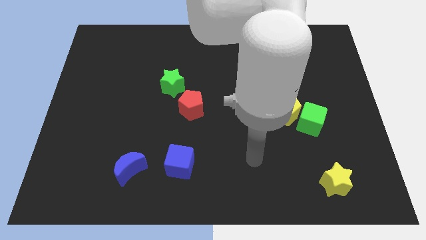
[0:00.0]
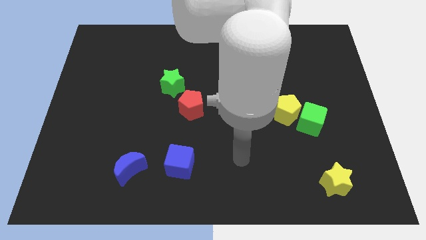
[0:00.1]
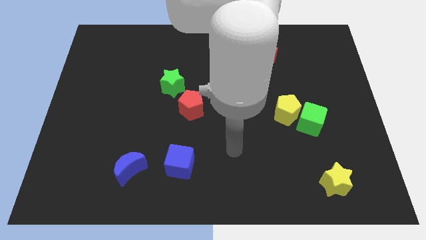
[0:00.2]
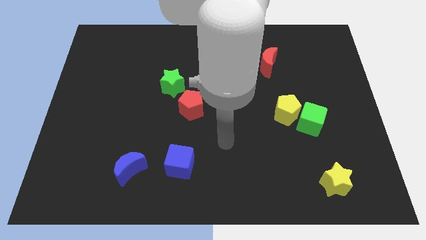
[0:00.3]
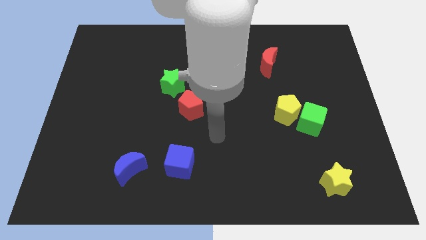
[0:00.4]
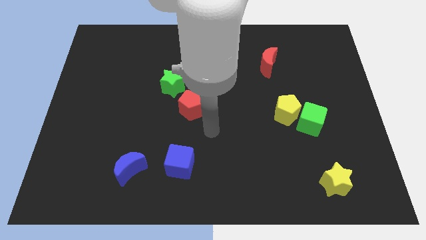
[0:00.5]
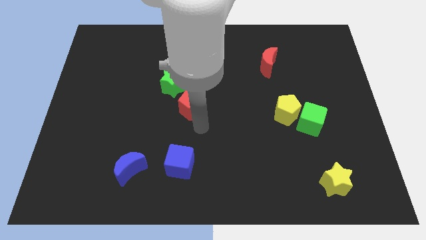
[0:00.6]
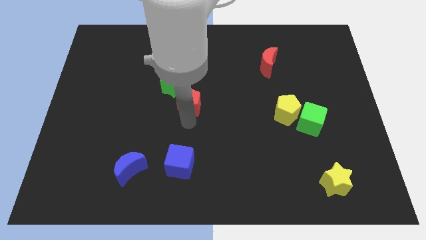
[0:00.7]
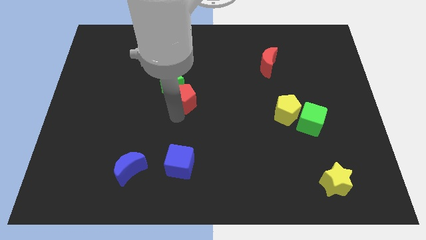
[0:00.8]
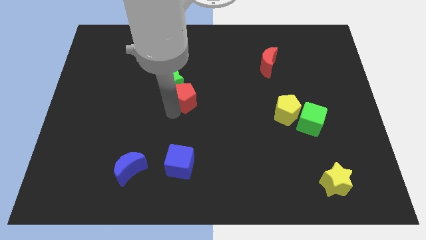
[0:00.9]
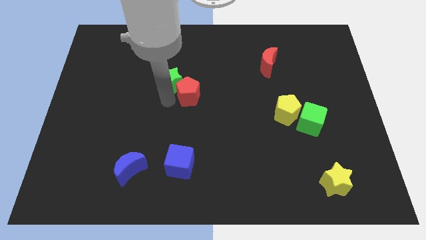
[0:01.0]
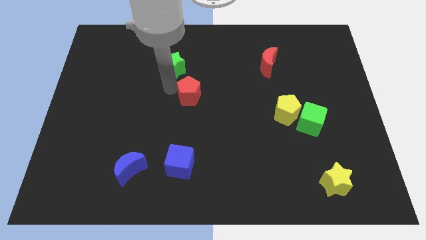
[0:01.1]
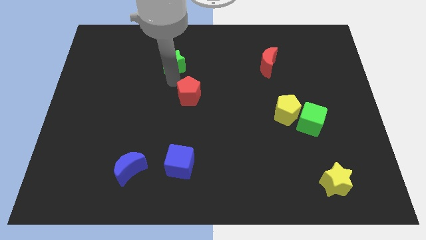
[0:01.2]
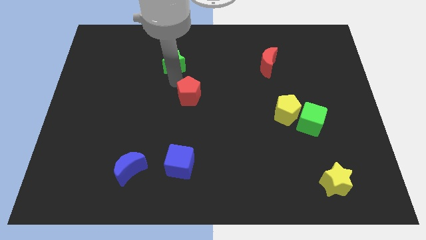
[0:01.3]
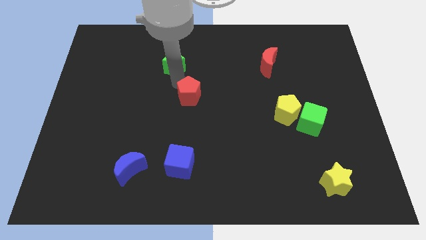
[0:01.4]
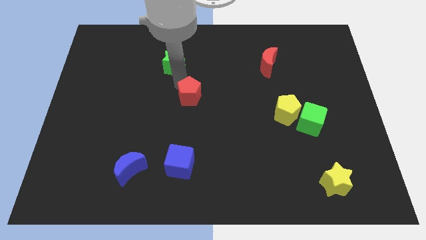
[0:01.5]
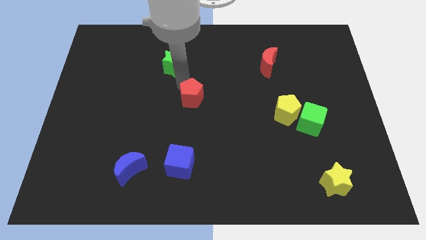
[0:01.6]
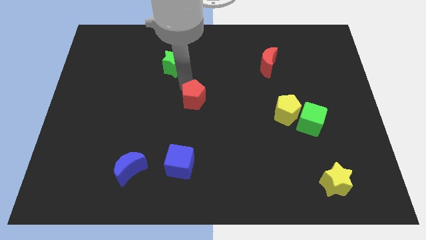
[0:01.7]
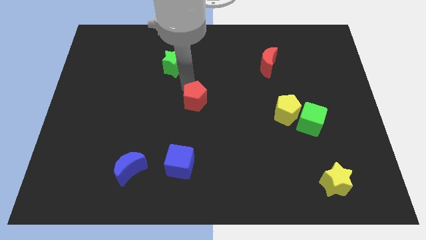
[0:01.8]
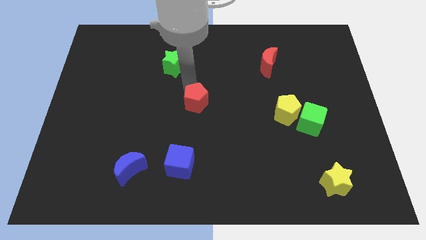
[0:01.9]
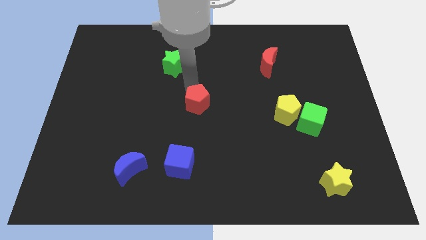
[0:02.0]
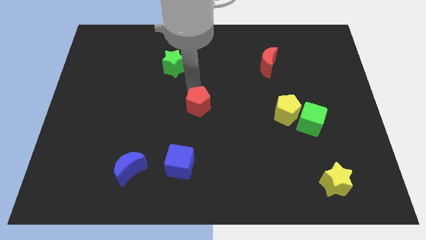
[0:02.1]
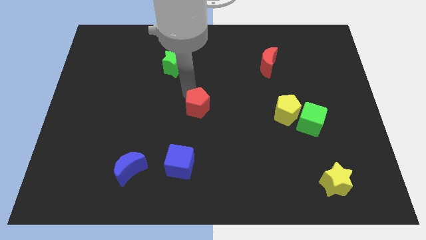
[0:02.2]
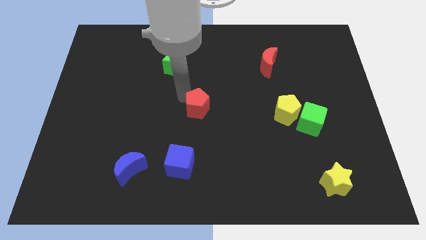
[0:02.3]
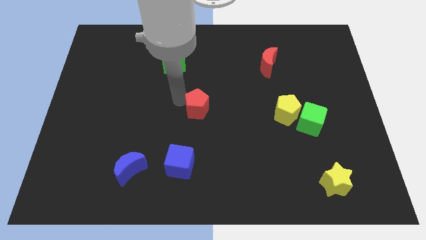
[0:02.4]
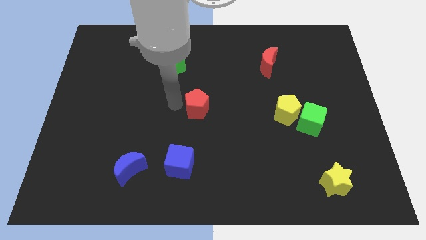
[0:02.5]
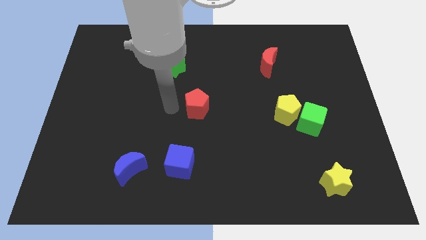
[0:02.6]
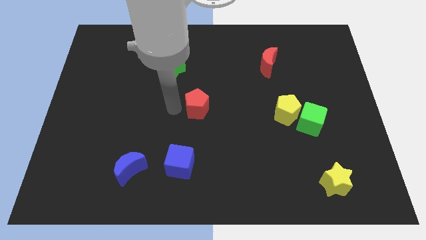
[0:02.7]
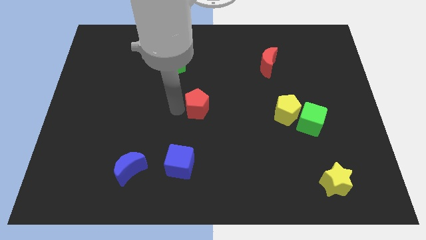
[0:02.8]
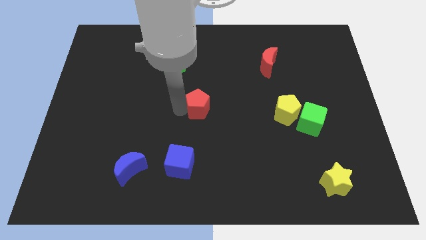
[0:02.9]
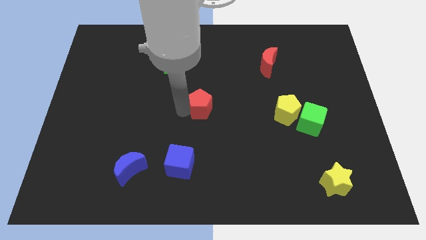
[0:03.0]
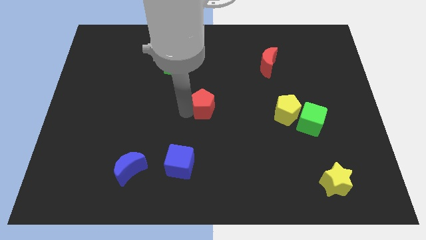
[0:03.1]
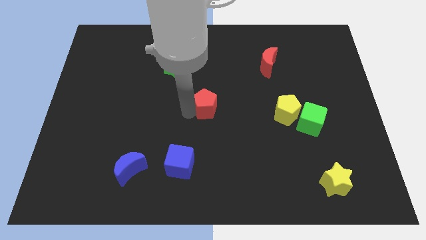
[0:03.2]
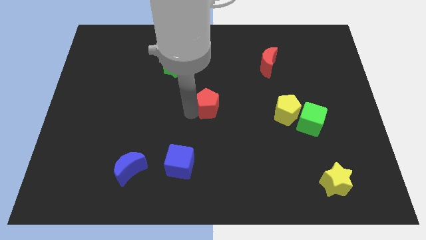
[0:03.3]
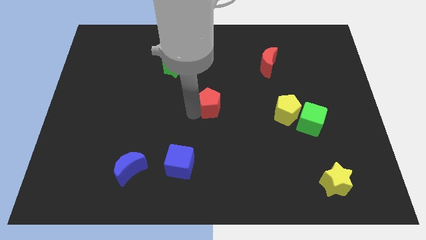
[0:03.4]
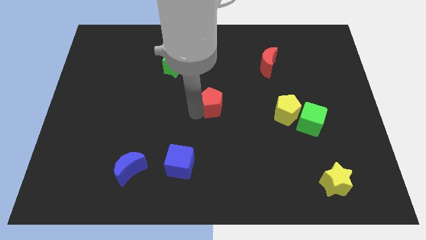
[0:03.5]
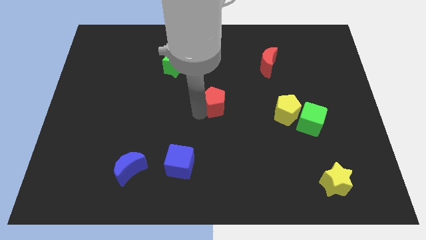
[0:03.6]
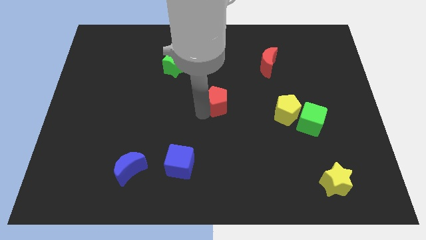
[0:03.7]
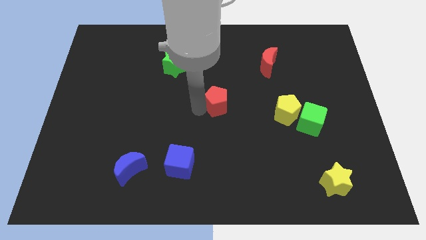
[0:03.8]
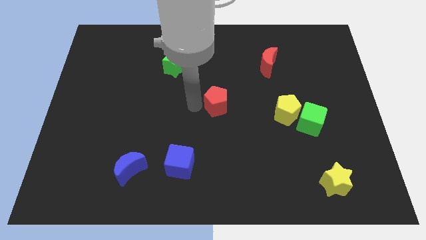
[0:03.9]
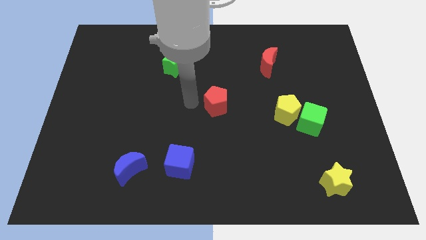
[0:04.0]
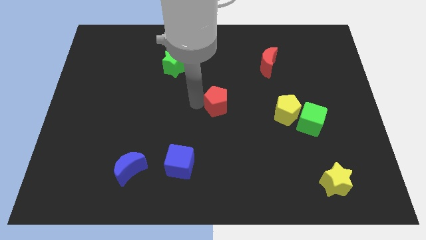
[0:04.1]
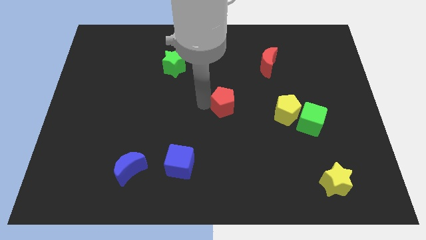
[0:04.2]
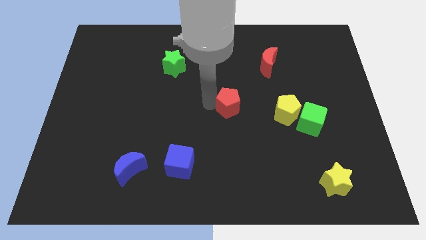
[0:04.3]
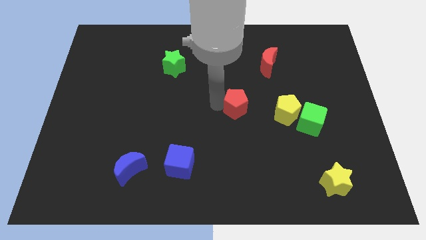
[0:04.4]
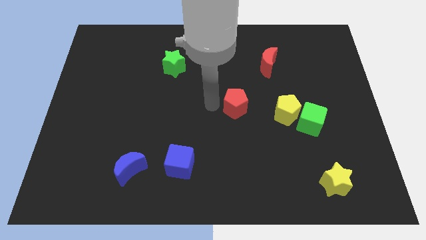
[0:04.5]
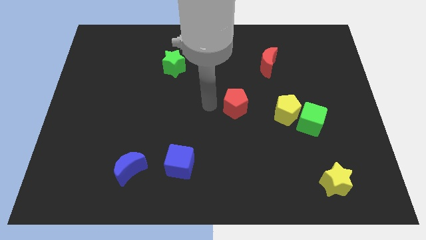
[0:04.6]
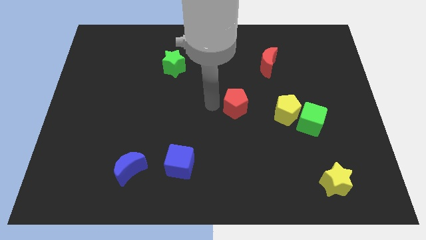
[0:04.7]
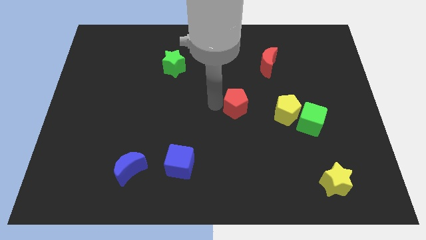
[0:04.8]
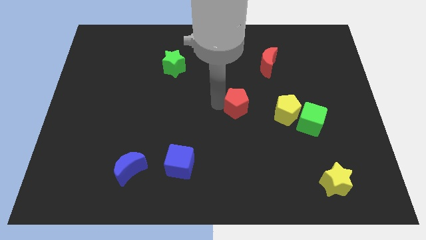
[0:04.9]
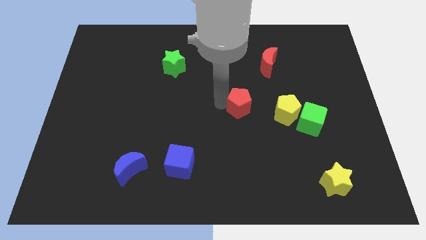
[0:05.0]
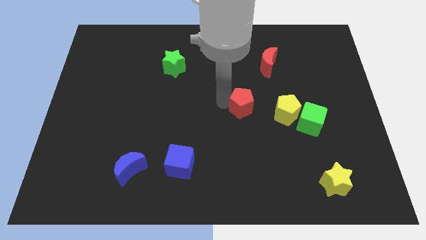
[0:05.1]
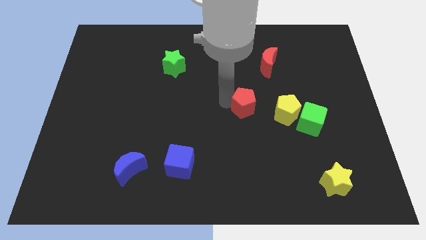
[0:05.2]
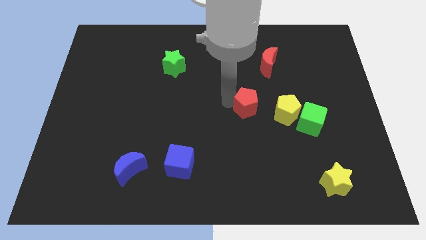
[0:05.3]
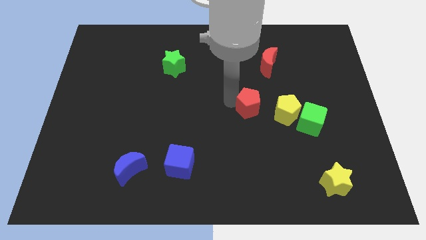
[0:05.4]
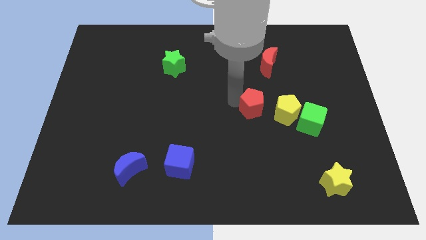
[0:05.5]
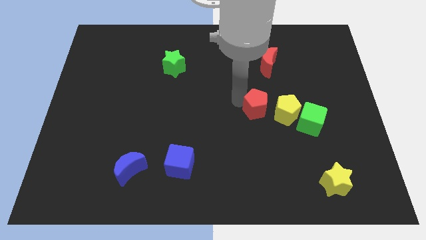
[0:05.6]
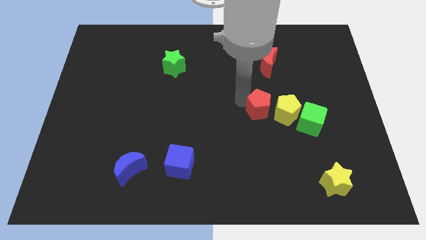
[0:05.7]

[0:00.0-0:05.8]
move the red pentagon to the yellow pentagon
